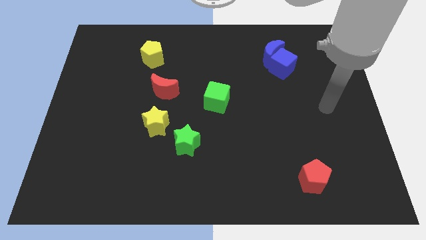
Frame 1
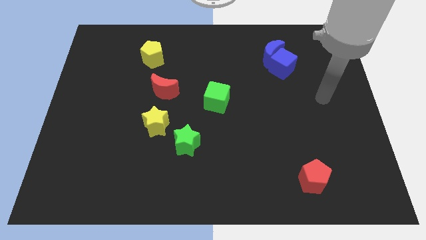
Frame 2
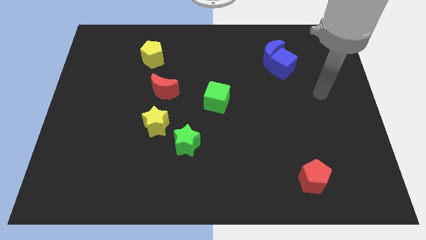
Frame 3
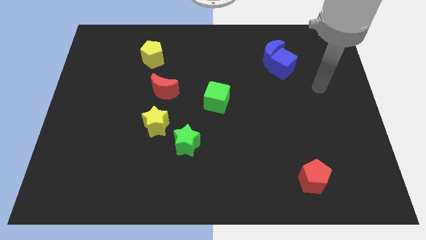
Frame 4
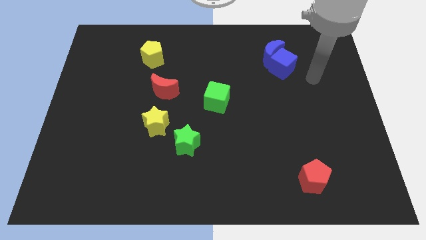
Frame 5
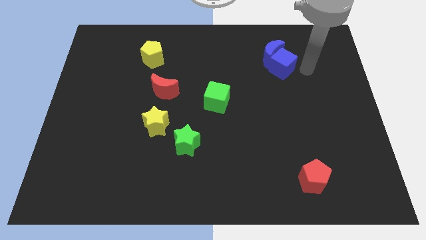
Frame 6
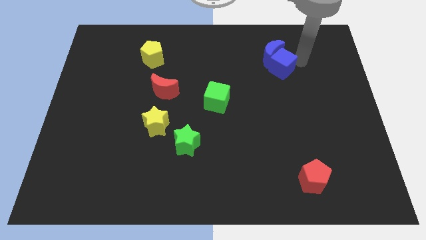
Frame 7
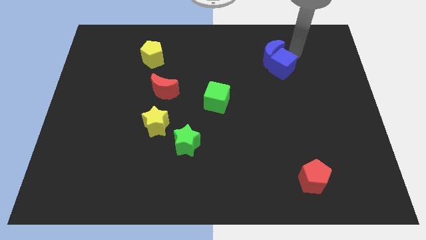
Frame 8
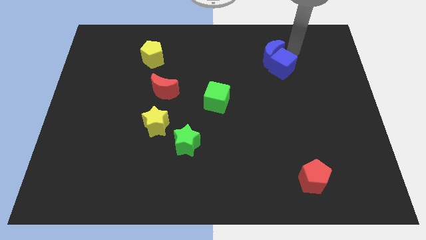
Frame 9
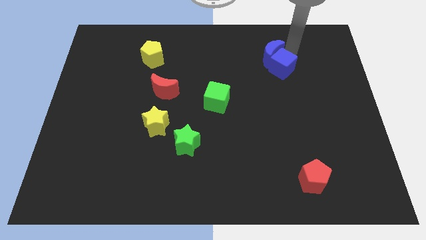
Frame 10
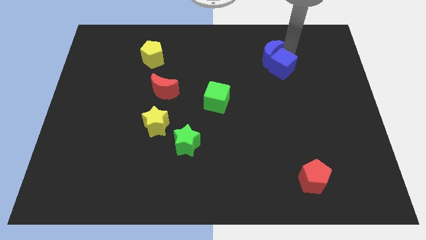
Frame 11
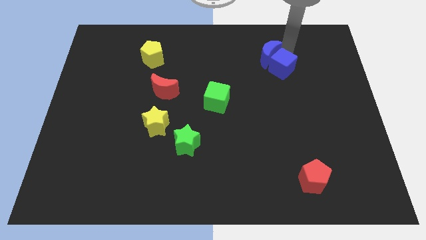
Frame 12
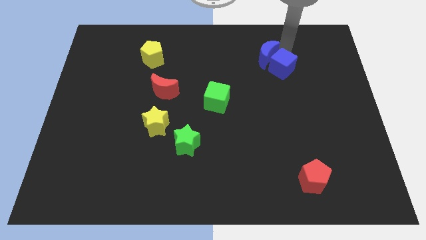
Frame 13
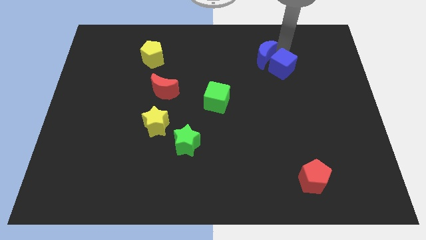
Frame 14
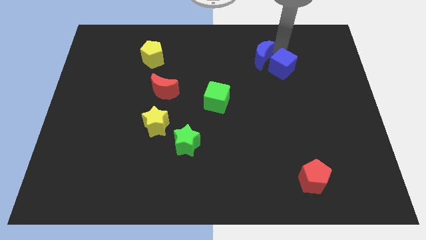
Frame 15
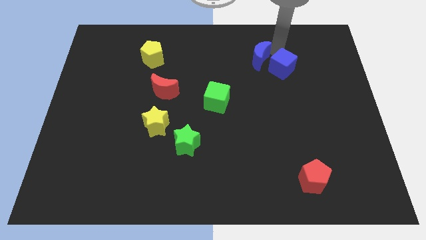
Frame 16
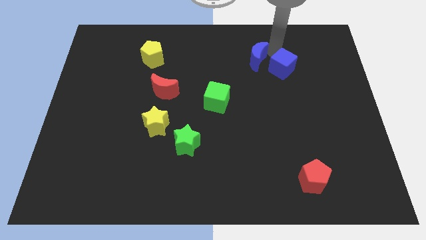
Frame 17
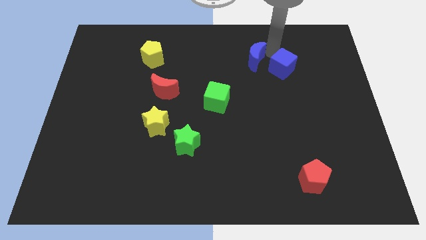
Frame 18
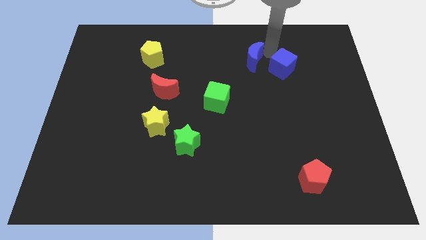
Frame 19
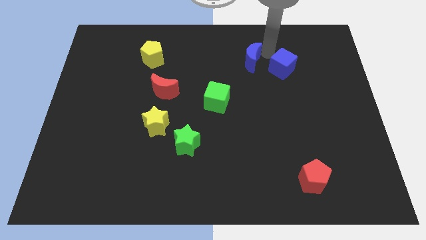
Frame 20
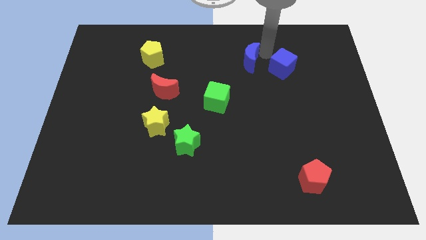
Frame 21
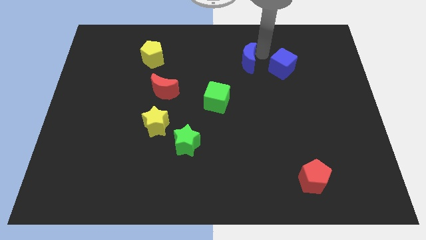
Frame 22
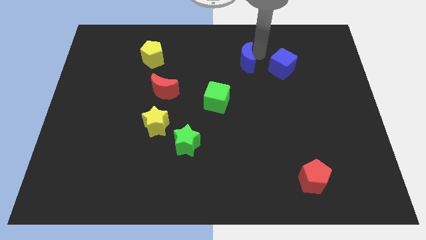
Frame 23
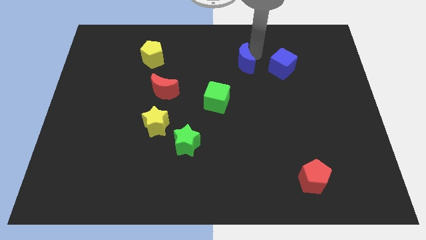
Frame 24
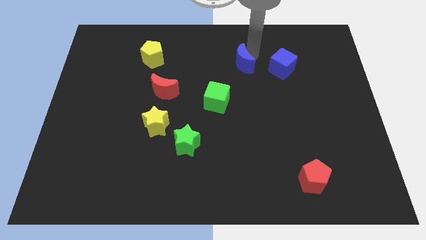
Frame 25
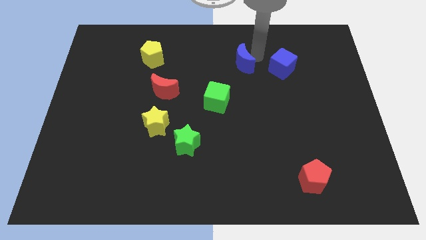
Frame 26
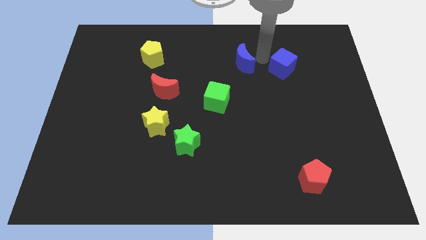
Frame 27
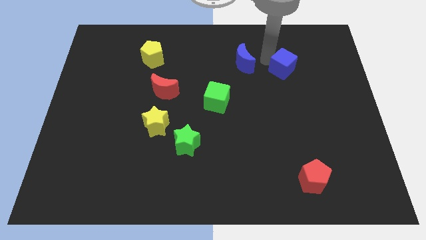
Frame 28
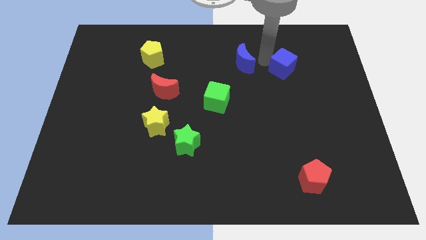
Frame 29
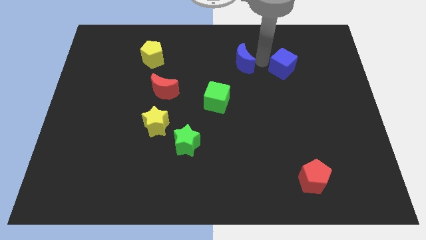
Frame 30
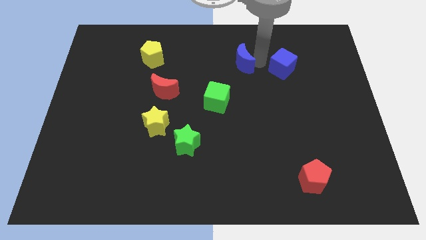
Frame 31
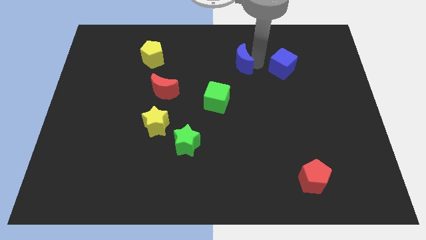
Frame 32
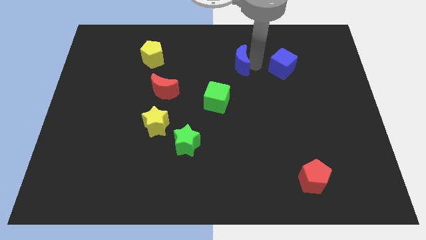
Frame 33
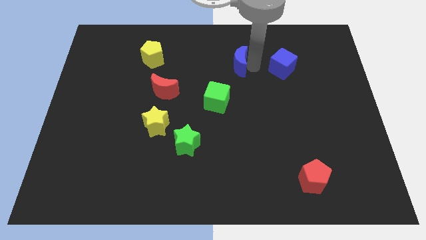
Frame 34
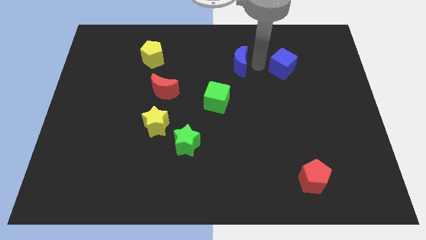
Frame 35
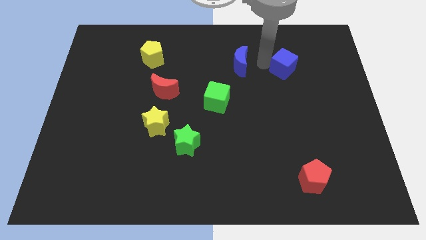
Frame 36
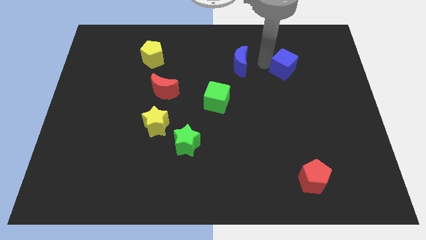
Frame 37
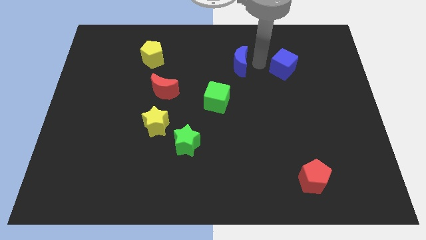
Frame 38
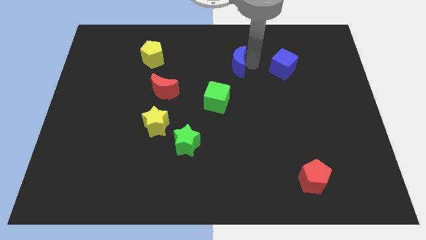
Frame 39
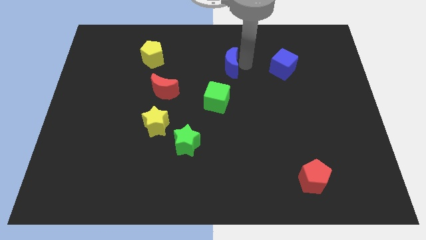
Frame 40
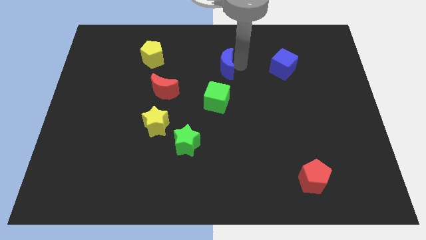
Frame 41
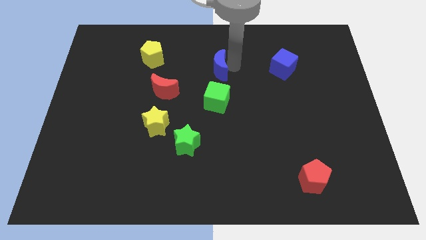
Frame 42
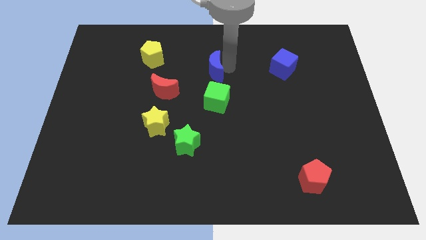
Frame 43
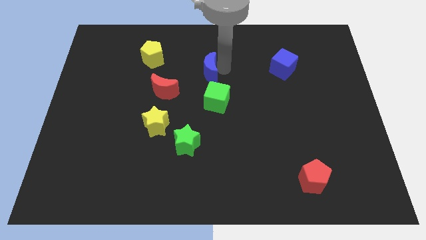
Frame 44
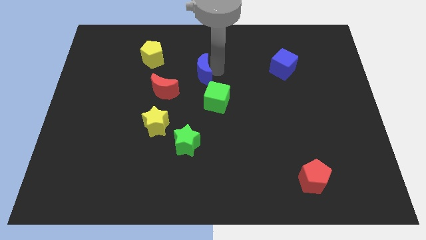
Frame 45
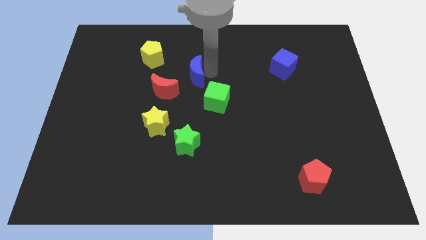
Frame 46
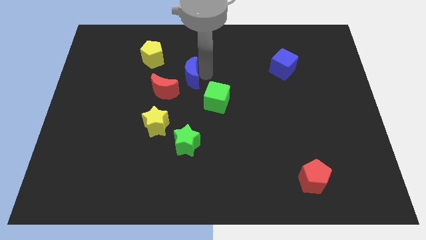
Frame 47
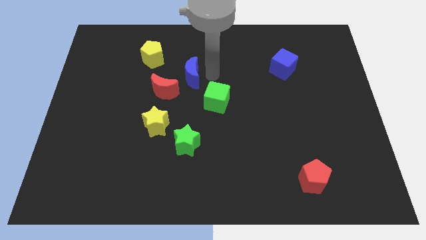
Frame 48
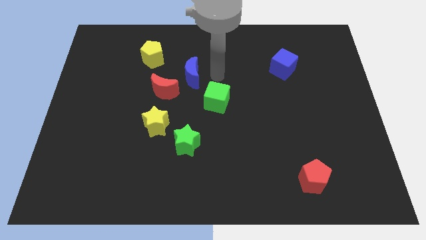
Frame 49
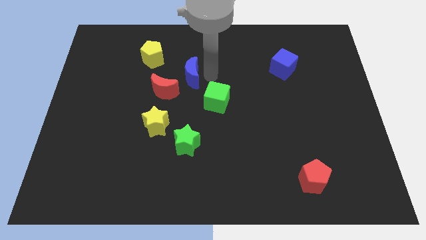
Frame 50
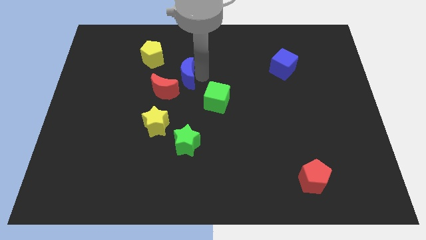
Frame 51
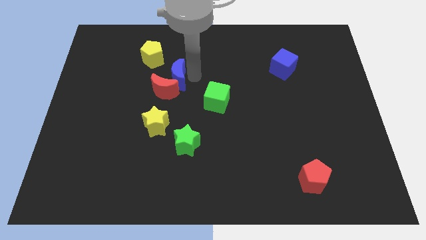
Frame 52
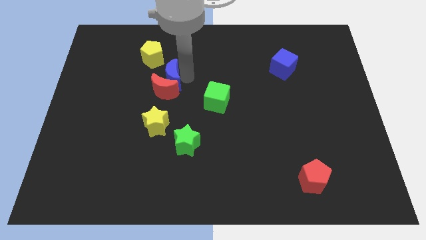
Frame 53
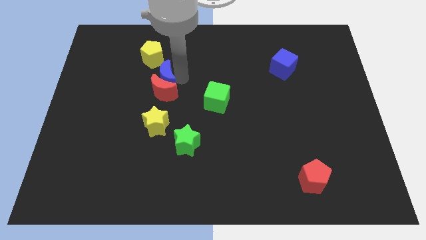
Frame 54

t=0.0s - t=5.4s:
push the blue moon to the bottom side of the yellow pentagon

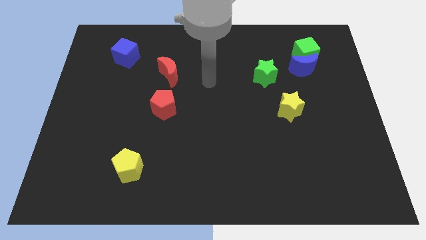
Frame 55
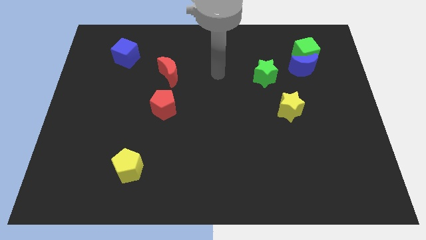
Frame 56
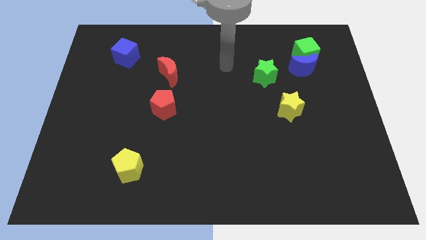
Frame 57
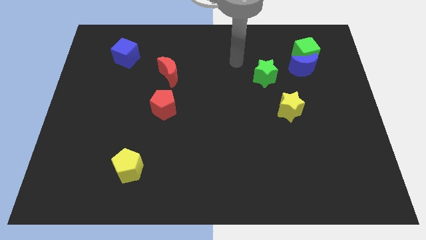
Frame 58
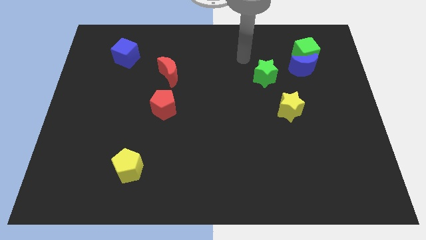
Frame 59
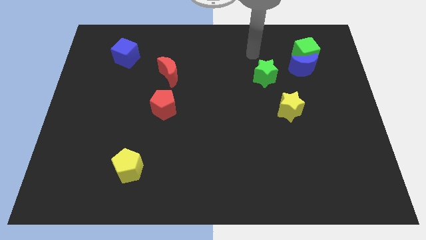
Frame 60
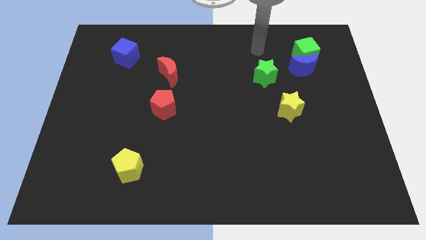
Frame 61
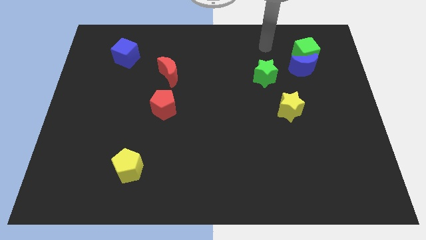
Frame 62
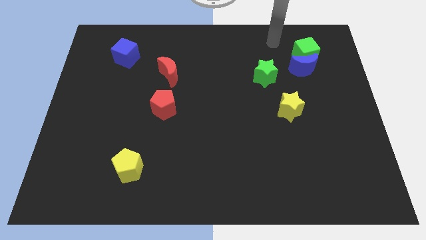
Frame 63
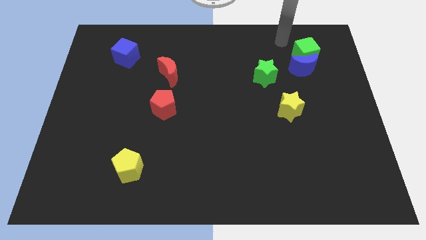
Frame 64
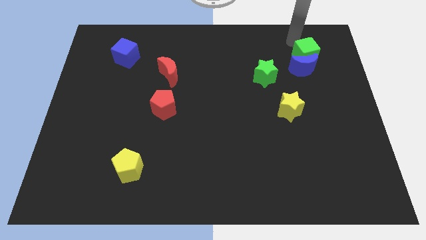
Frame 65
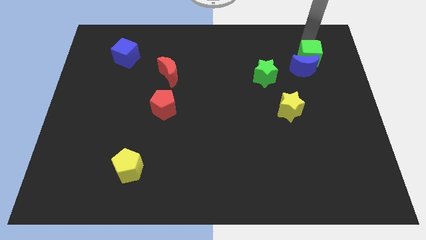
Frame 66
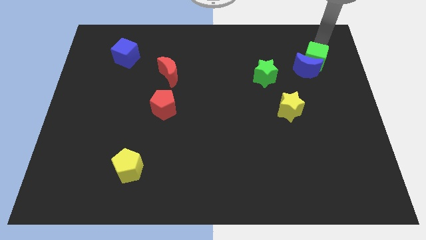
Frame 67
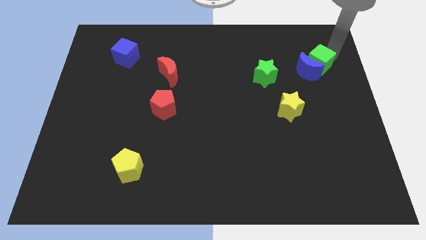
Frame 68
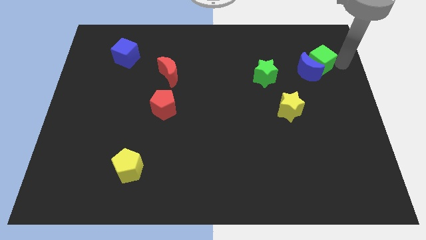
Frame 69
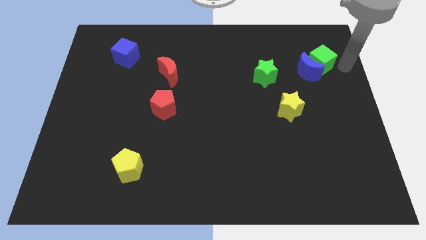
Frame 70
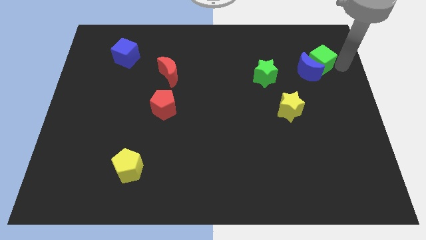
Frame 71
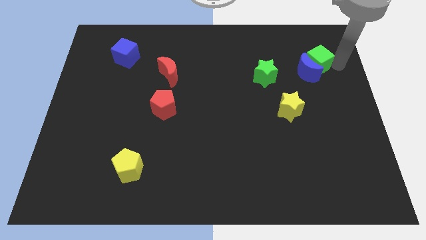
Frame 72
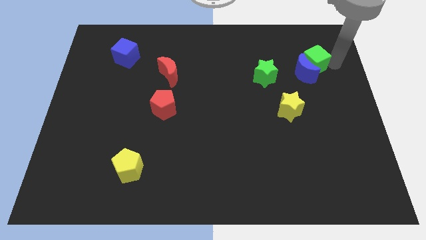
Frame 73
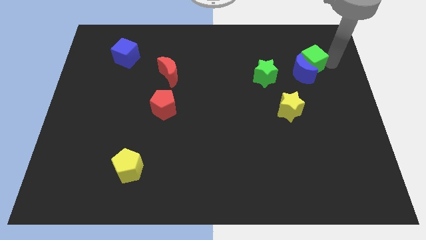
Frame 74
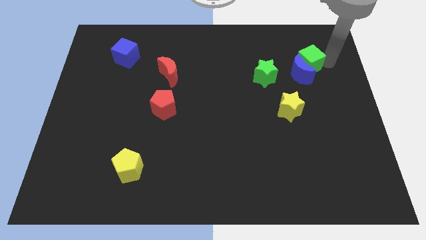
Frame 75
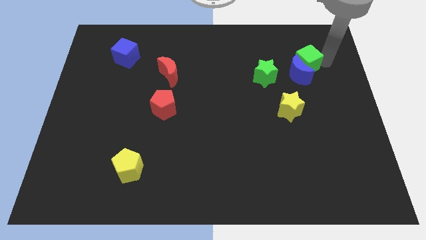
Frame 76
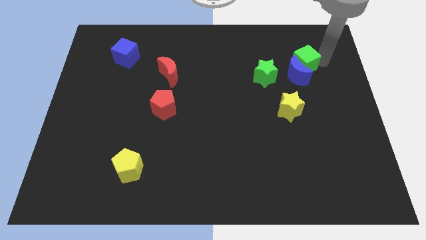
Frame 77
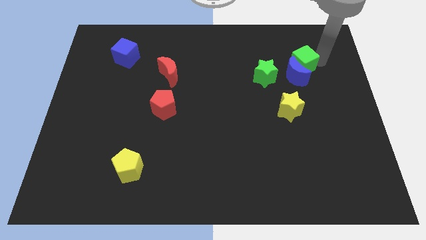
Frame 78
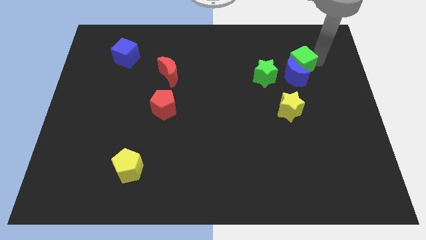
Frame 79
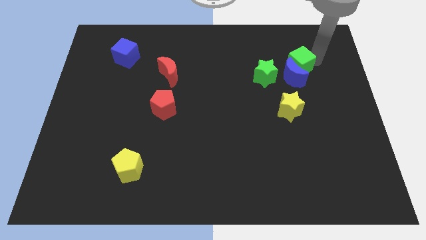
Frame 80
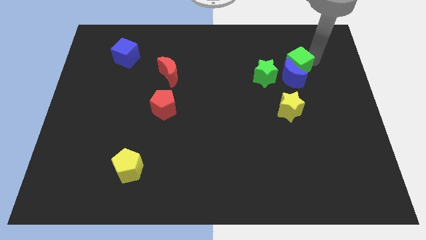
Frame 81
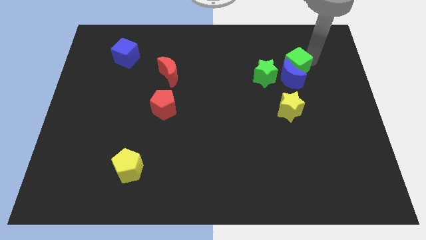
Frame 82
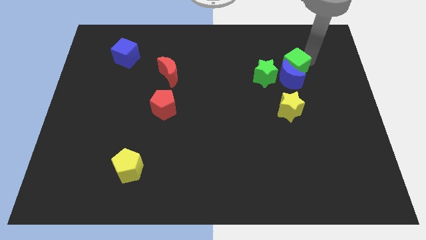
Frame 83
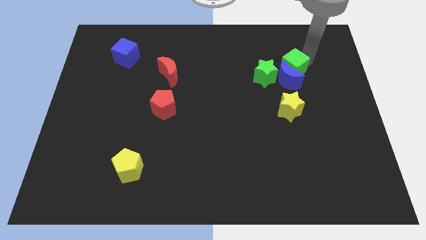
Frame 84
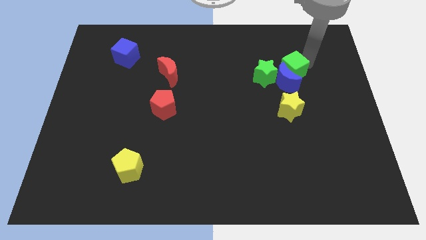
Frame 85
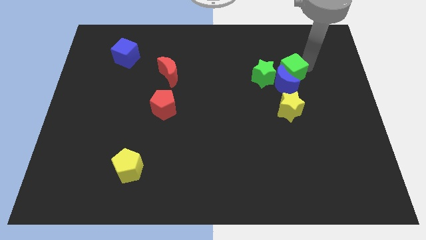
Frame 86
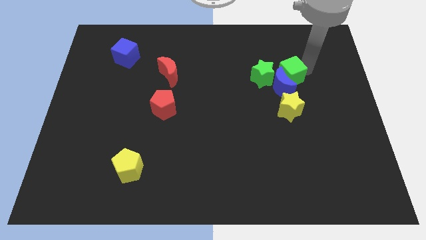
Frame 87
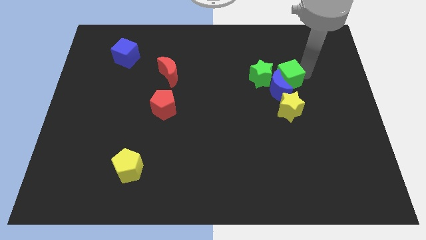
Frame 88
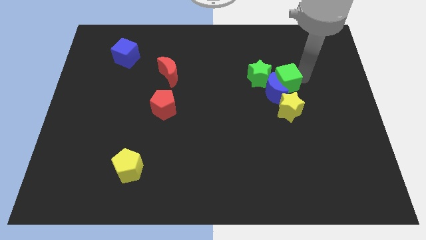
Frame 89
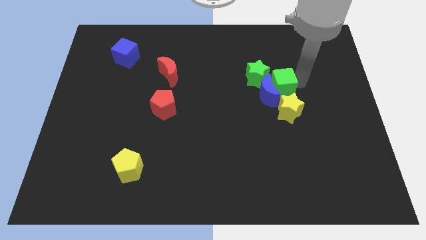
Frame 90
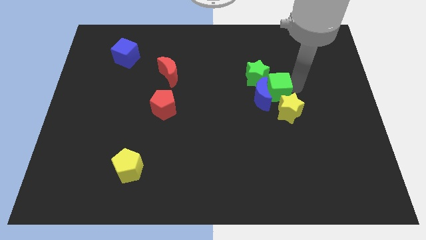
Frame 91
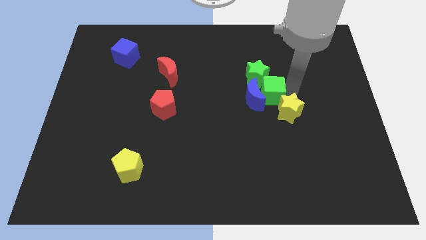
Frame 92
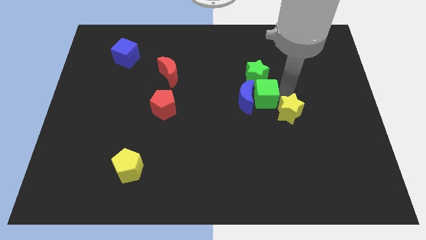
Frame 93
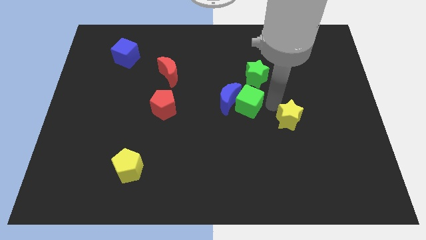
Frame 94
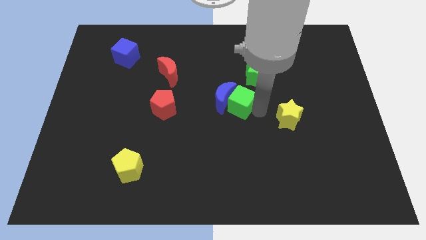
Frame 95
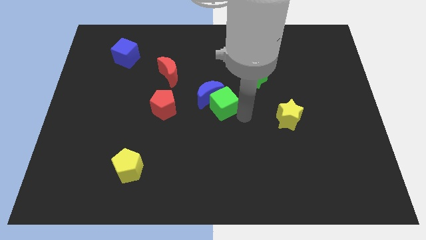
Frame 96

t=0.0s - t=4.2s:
put the green cube to the right of the red pentagon
